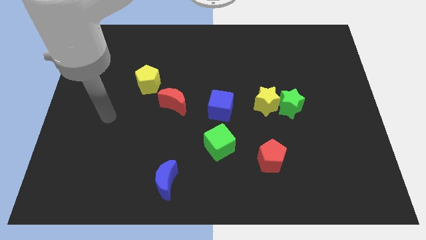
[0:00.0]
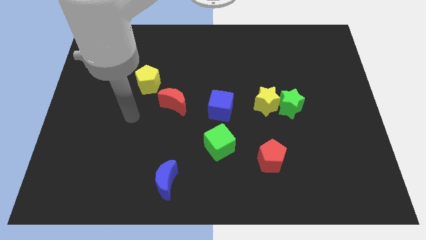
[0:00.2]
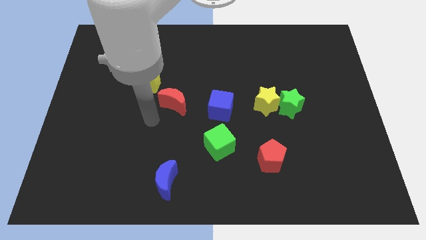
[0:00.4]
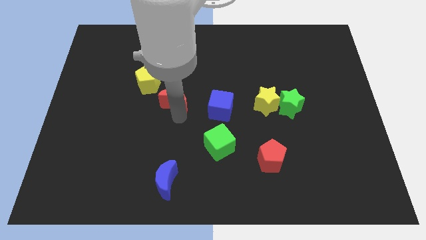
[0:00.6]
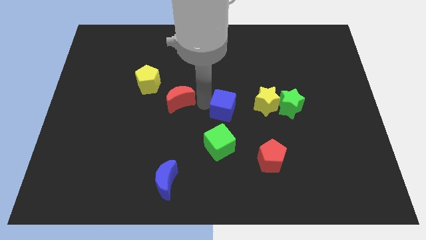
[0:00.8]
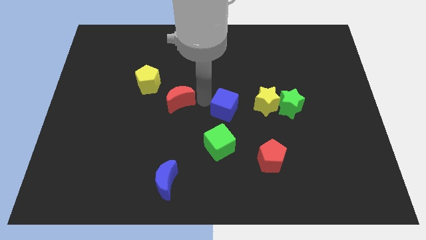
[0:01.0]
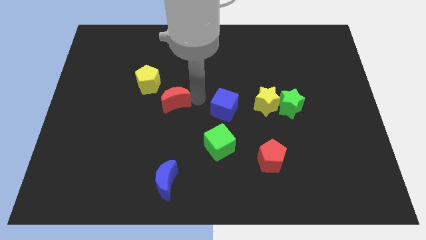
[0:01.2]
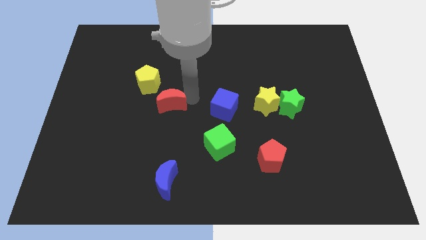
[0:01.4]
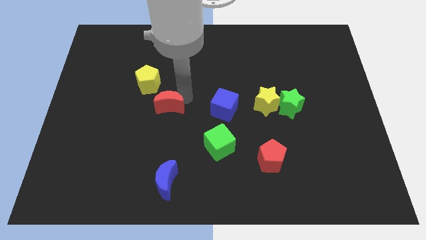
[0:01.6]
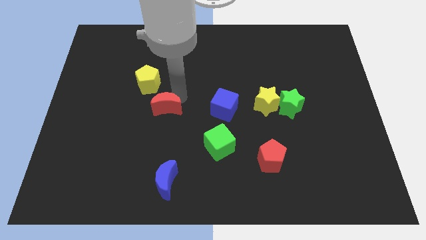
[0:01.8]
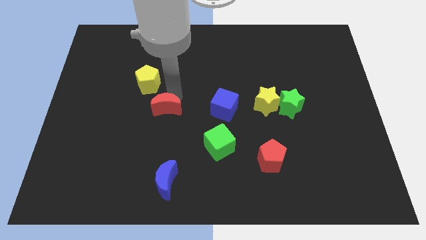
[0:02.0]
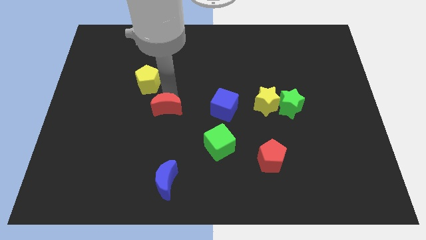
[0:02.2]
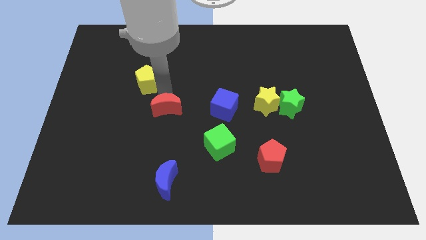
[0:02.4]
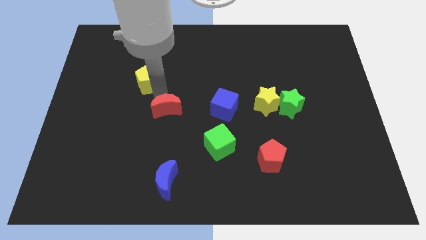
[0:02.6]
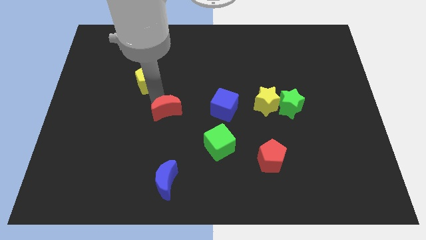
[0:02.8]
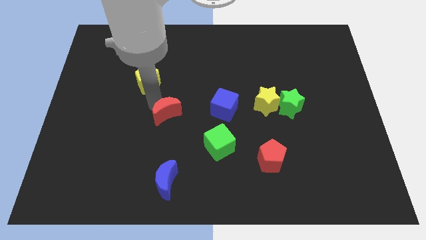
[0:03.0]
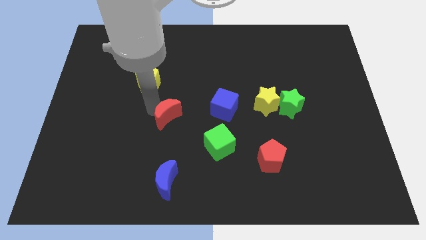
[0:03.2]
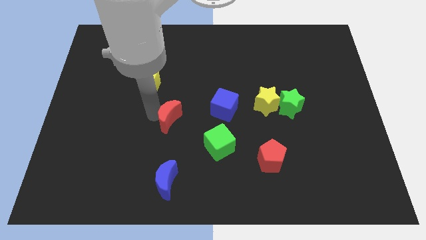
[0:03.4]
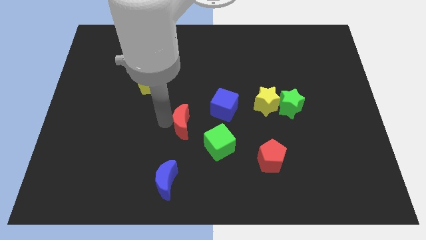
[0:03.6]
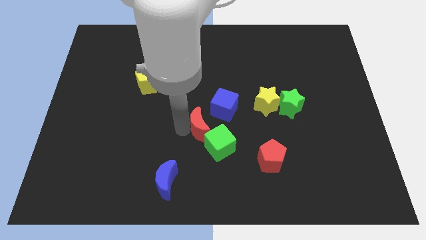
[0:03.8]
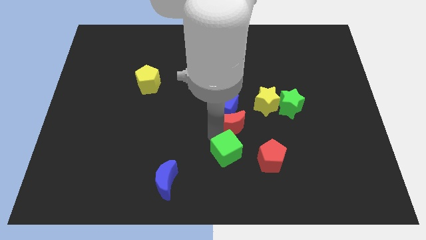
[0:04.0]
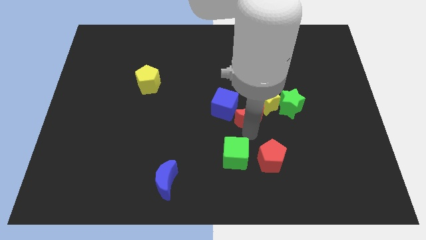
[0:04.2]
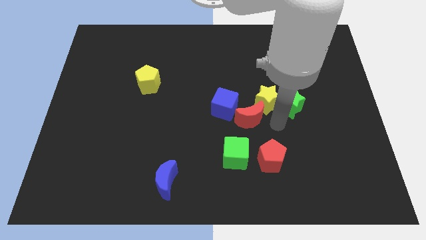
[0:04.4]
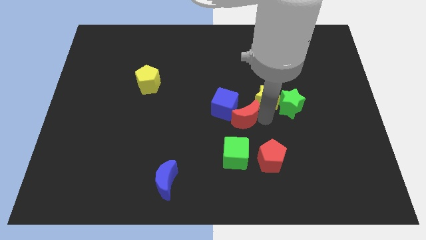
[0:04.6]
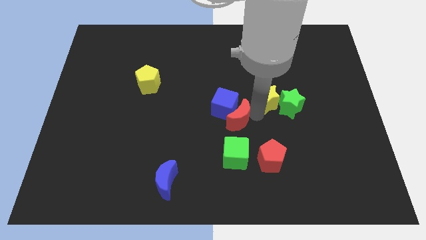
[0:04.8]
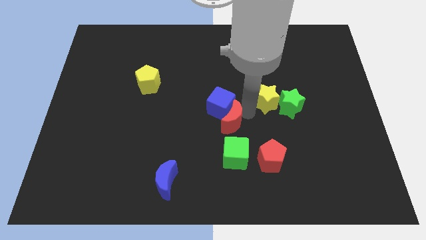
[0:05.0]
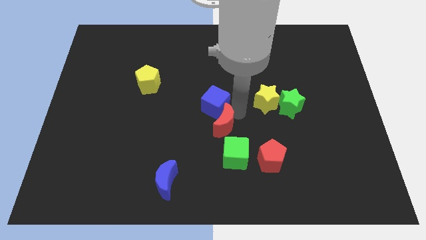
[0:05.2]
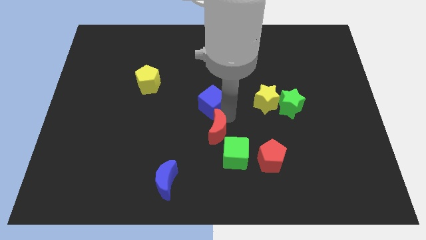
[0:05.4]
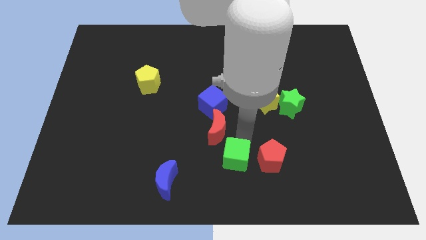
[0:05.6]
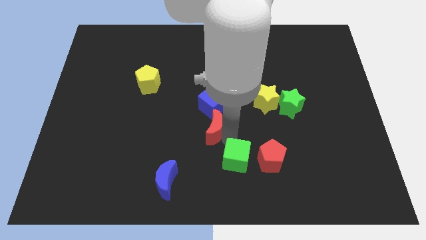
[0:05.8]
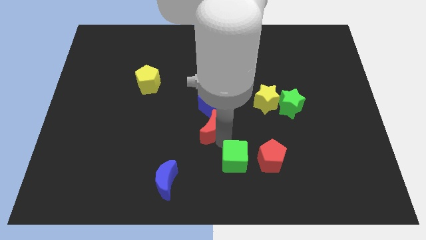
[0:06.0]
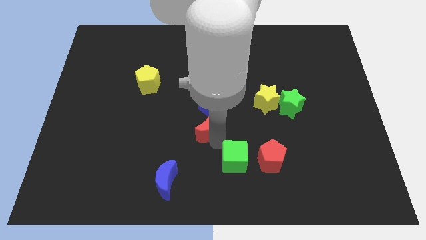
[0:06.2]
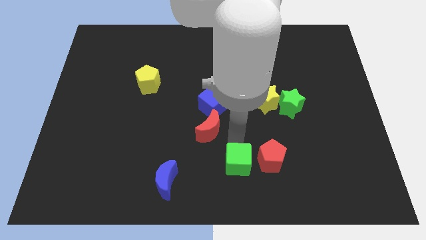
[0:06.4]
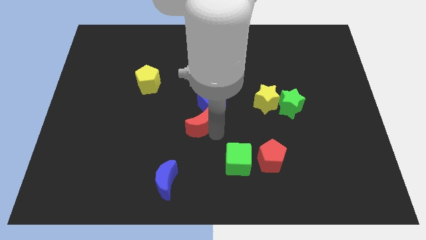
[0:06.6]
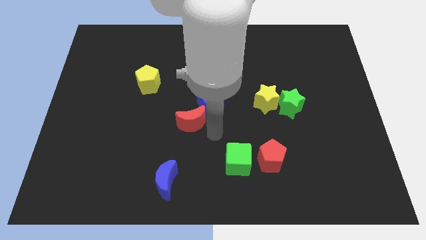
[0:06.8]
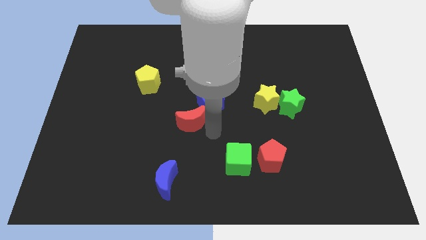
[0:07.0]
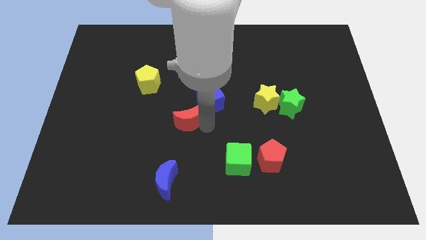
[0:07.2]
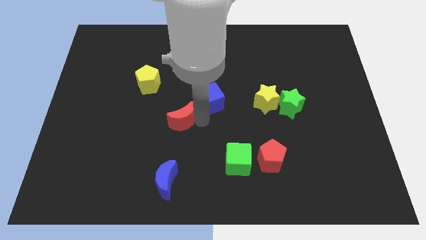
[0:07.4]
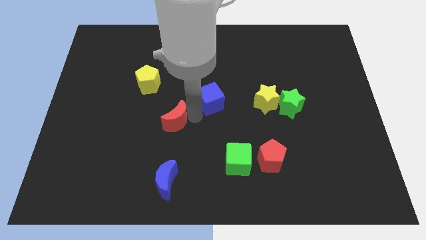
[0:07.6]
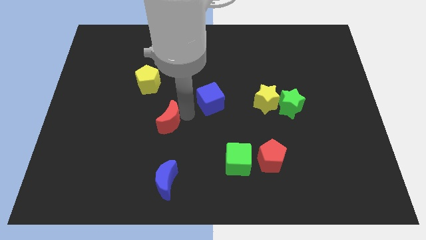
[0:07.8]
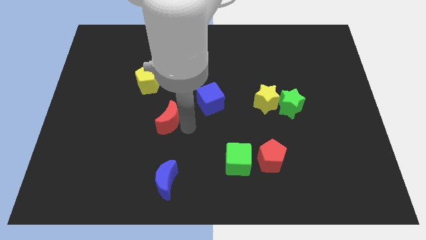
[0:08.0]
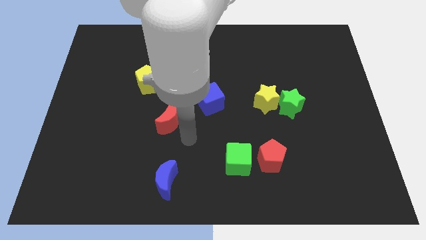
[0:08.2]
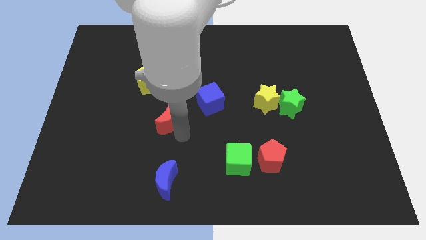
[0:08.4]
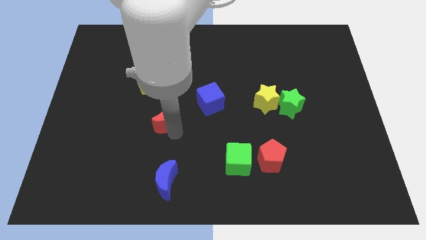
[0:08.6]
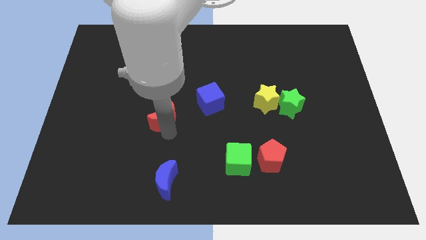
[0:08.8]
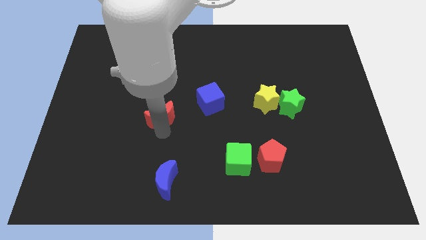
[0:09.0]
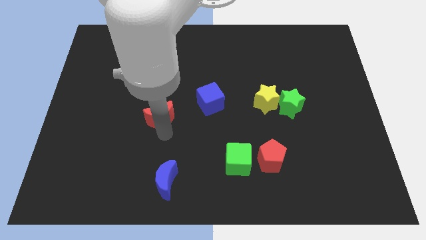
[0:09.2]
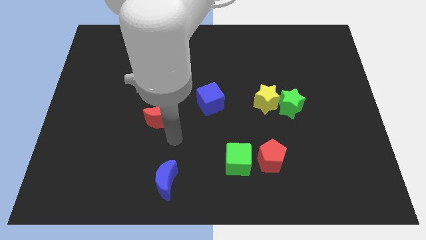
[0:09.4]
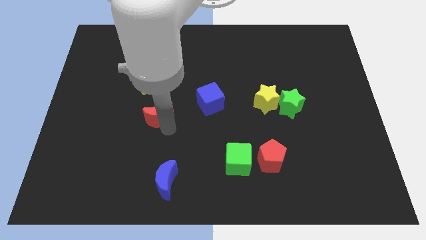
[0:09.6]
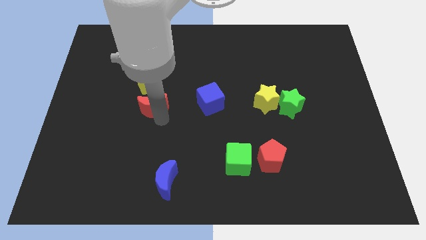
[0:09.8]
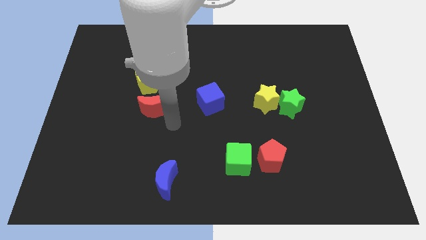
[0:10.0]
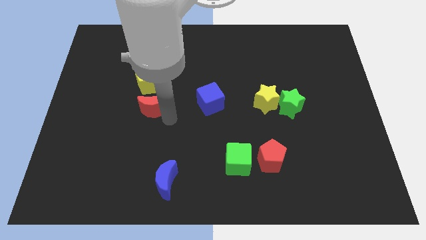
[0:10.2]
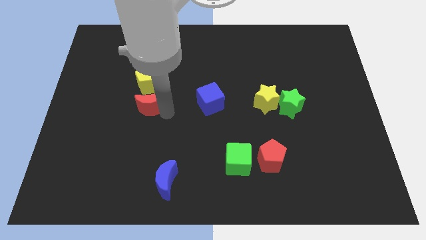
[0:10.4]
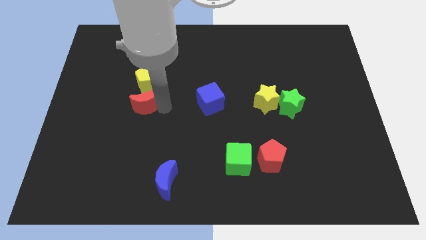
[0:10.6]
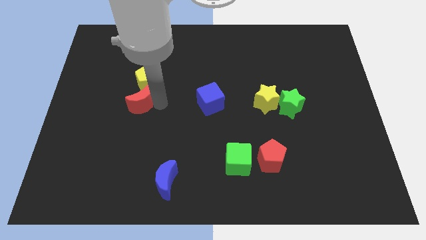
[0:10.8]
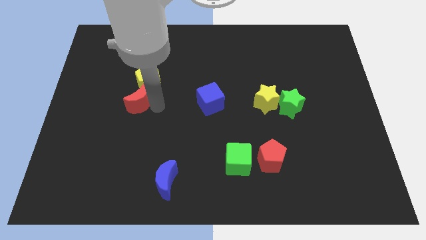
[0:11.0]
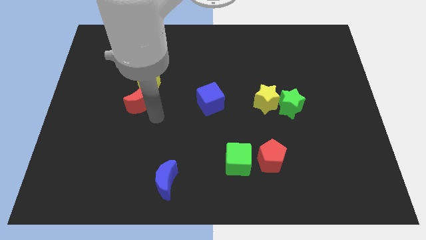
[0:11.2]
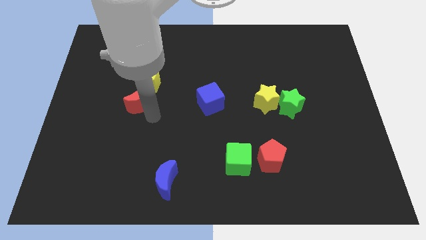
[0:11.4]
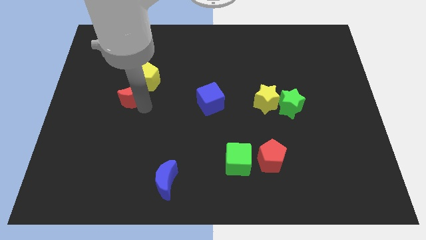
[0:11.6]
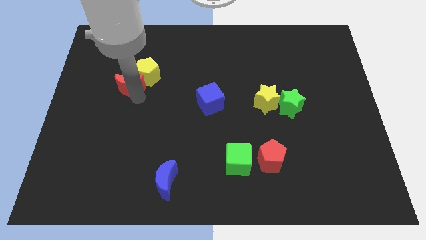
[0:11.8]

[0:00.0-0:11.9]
push the red moon to the left side of the yellow pentagon

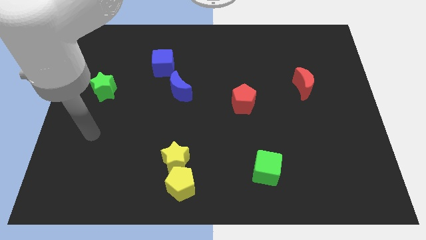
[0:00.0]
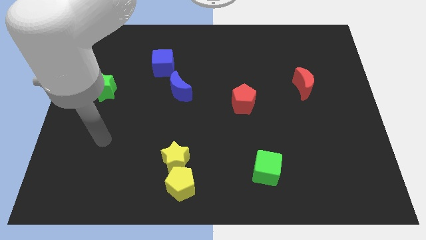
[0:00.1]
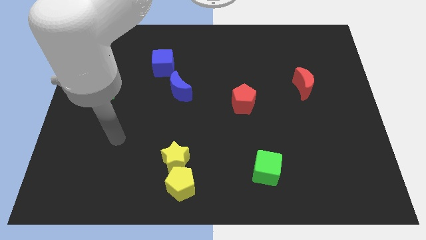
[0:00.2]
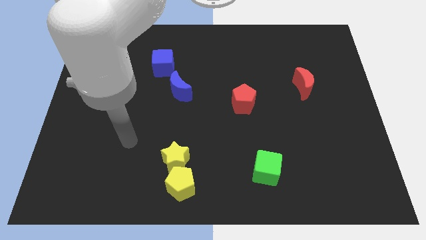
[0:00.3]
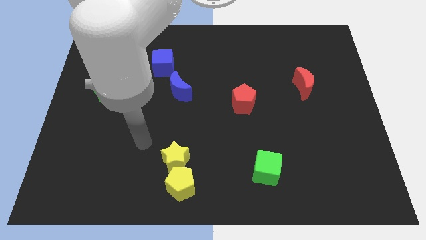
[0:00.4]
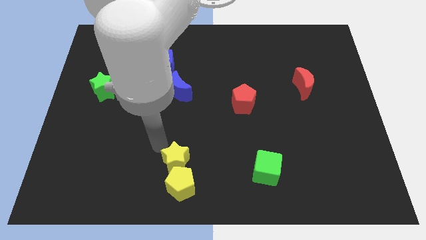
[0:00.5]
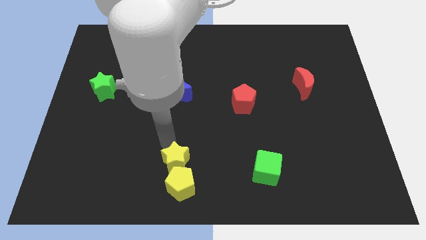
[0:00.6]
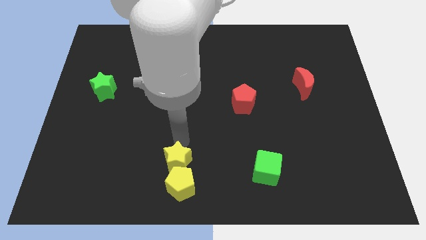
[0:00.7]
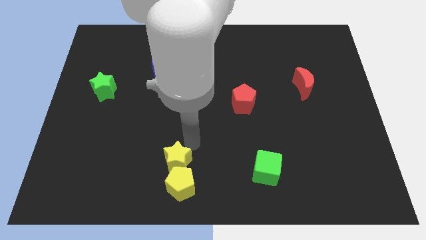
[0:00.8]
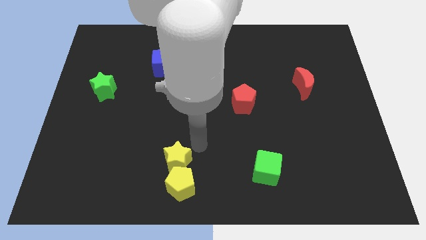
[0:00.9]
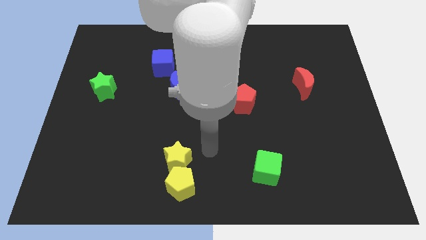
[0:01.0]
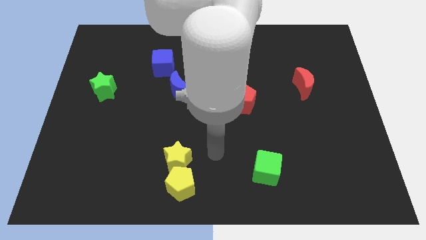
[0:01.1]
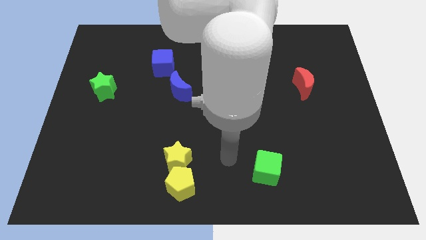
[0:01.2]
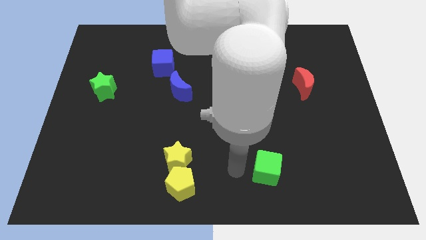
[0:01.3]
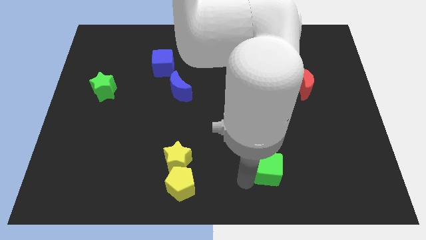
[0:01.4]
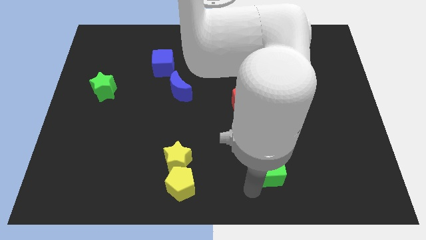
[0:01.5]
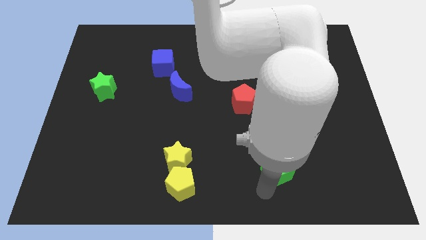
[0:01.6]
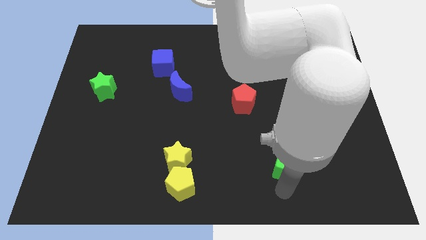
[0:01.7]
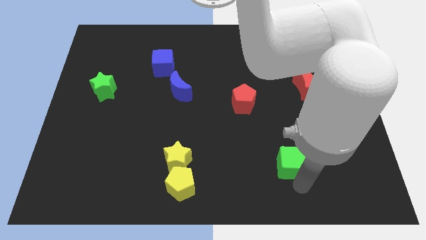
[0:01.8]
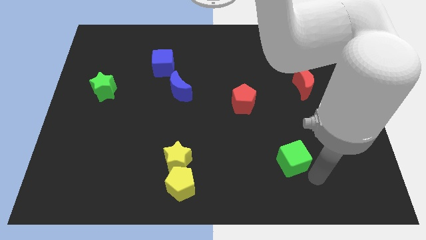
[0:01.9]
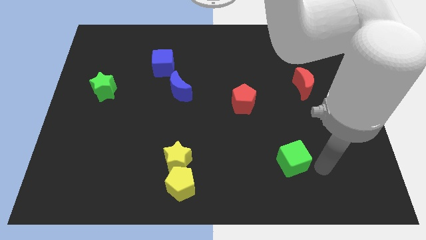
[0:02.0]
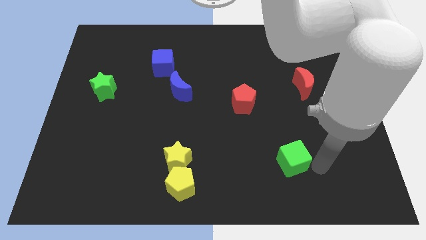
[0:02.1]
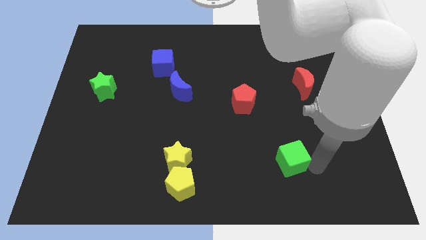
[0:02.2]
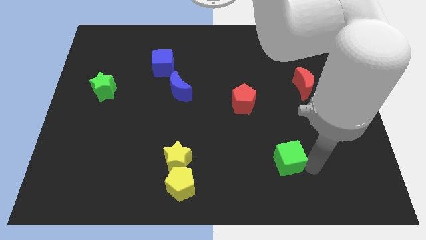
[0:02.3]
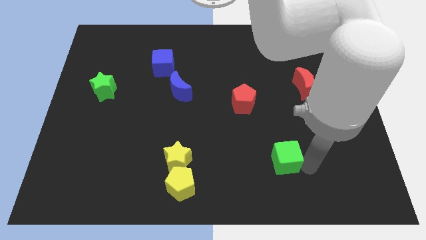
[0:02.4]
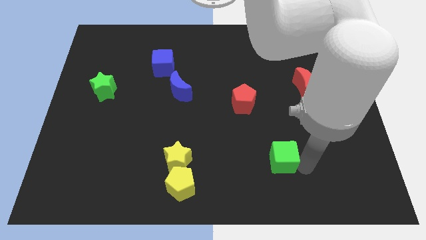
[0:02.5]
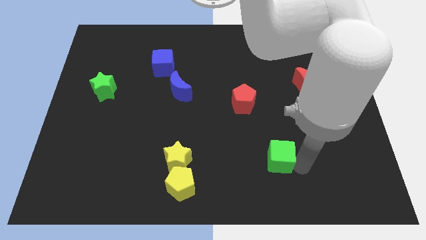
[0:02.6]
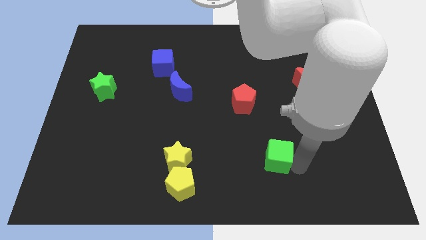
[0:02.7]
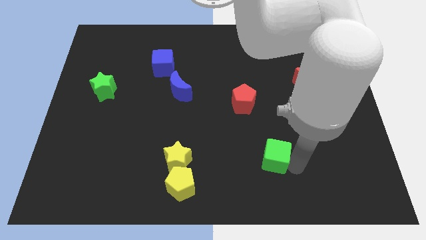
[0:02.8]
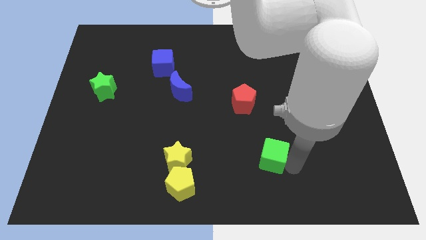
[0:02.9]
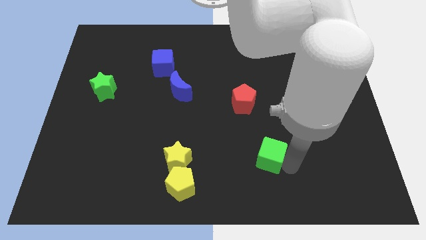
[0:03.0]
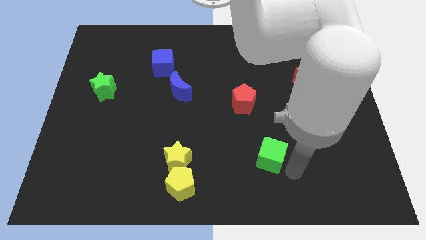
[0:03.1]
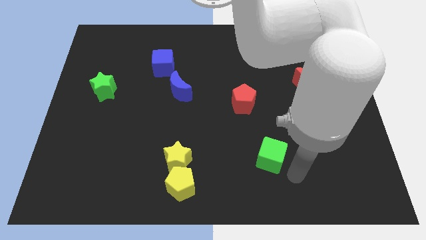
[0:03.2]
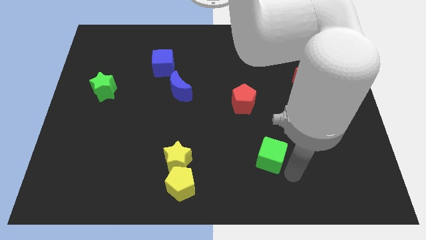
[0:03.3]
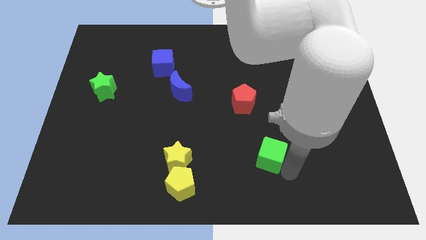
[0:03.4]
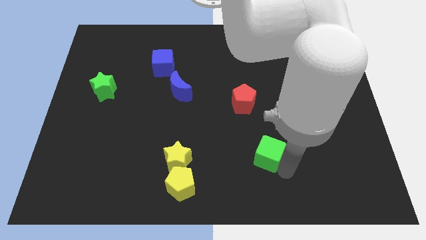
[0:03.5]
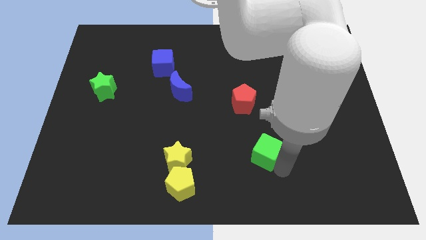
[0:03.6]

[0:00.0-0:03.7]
push the green cube below the red pentagon
